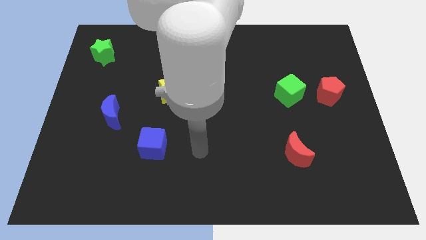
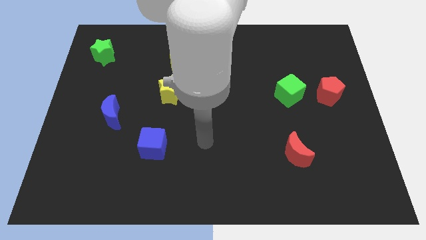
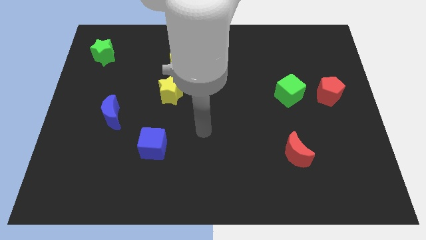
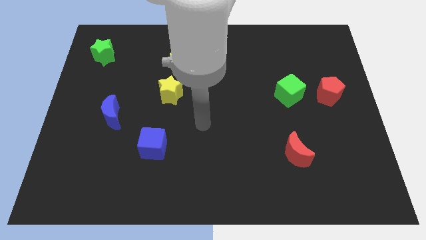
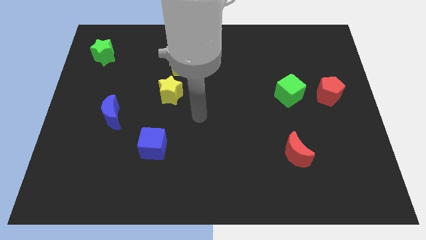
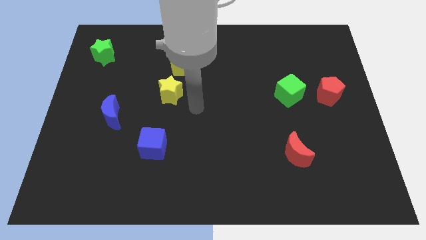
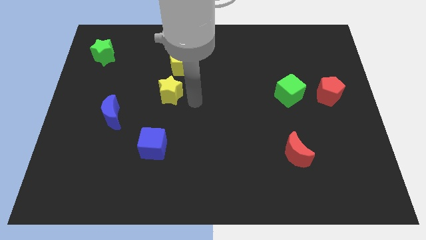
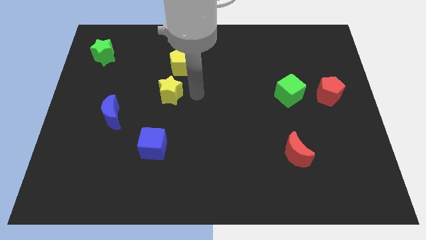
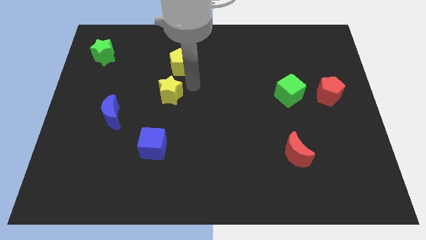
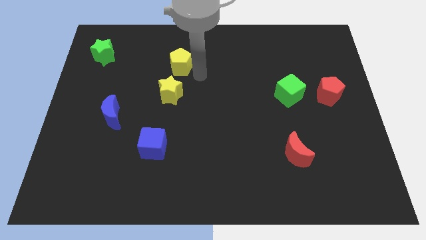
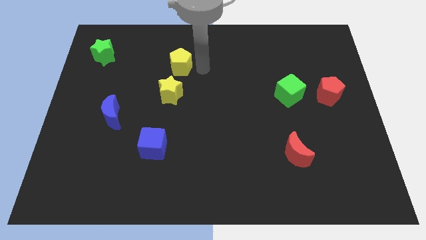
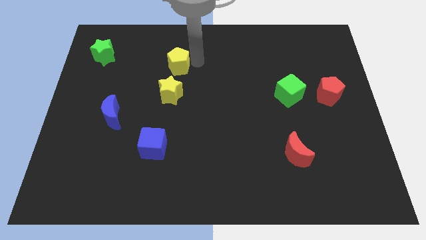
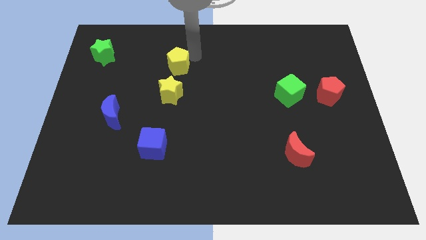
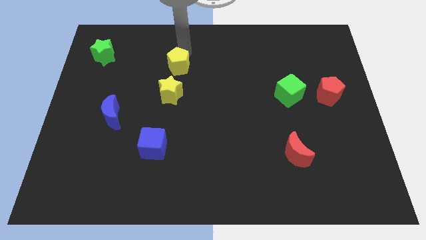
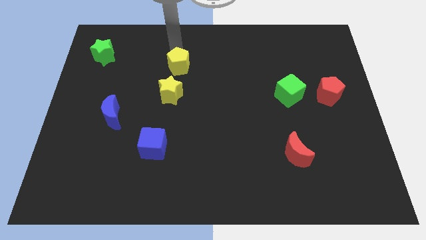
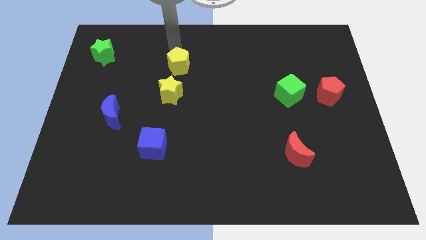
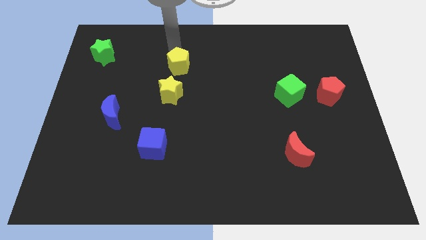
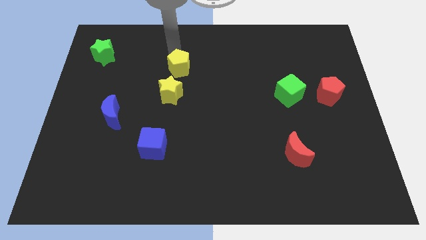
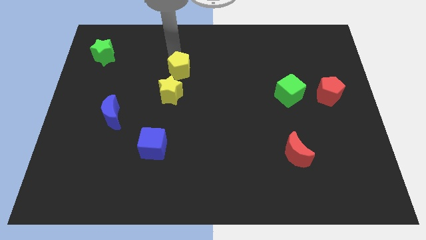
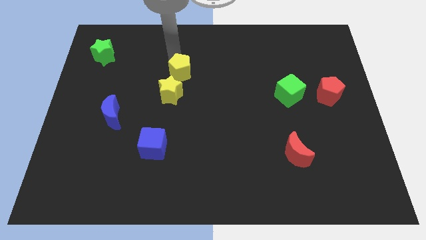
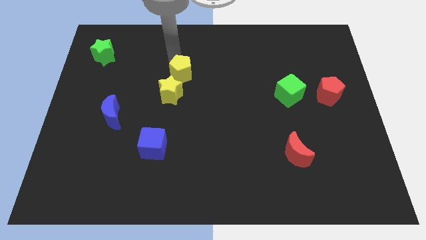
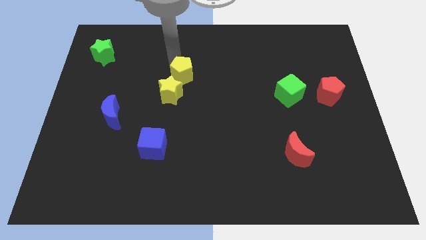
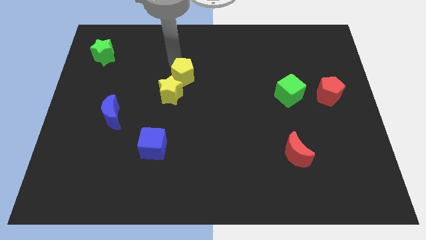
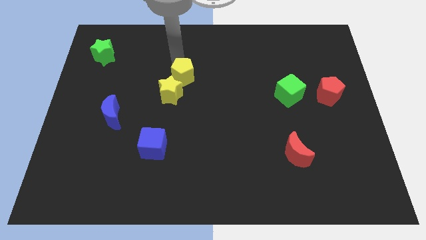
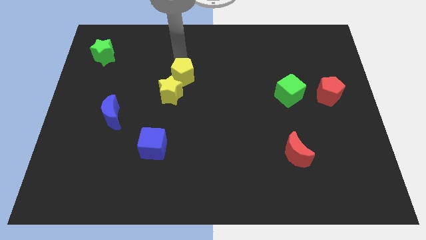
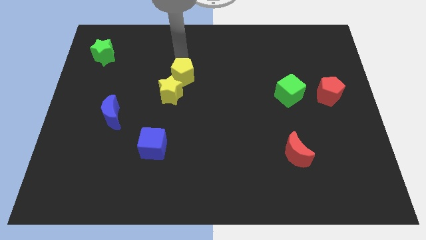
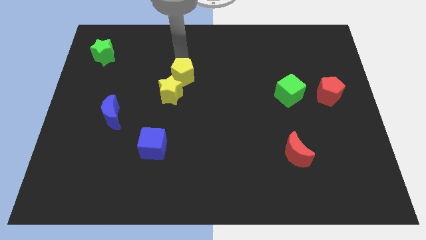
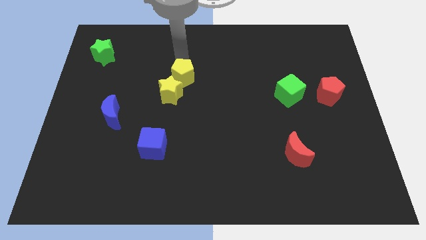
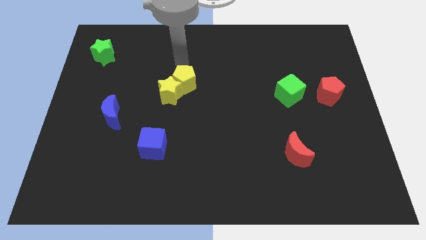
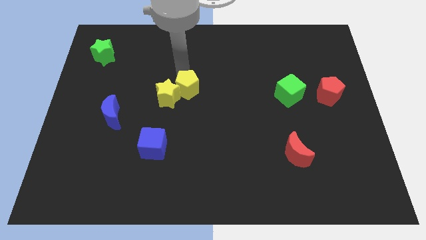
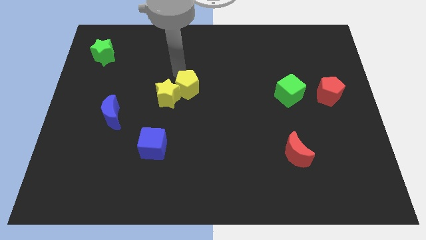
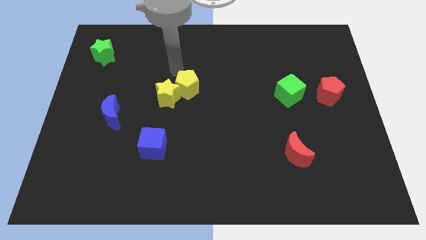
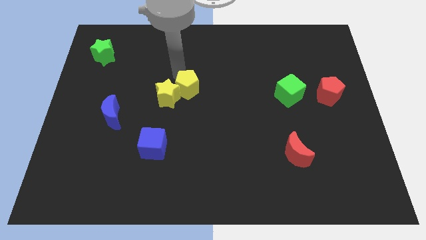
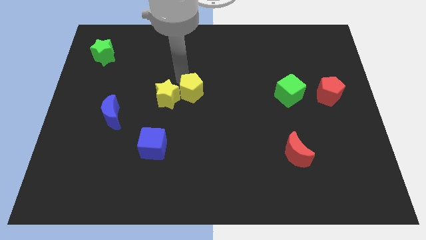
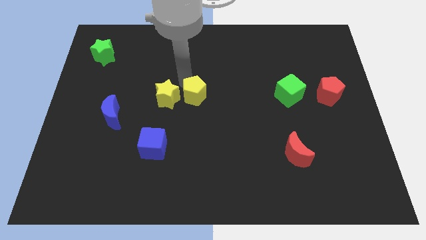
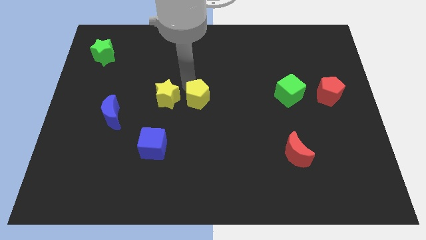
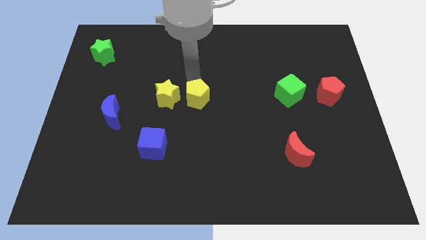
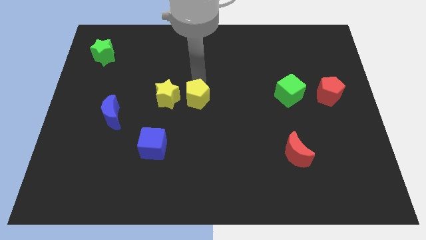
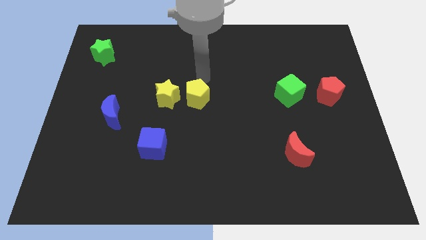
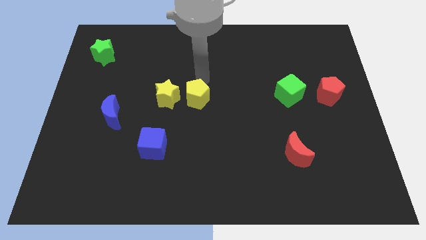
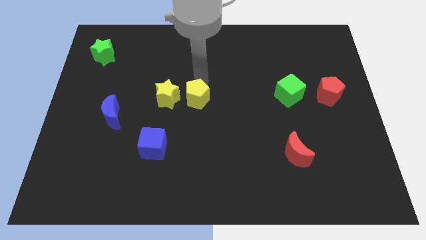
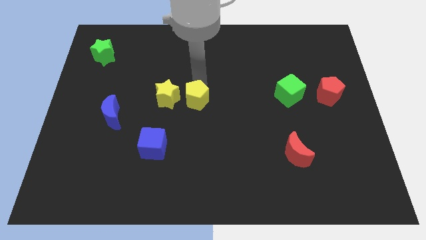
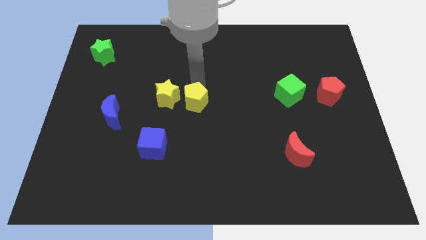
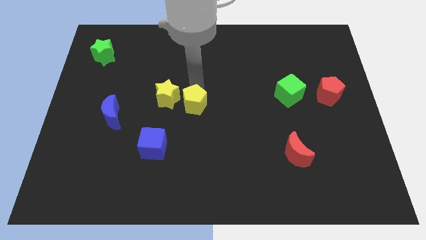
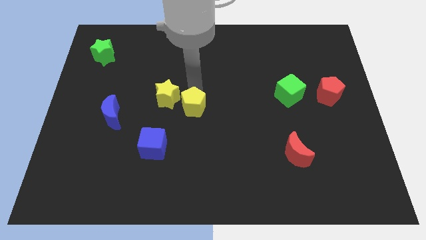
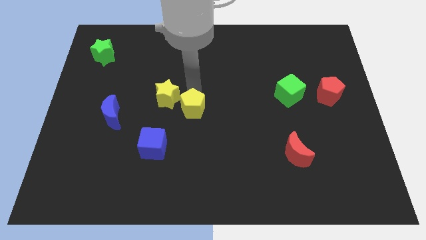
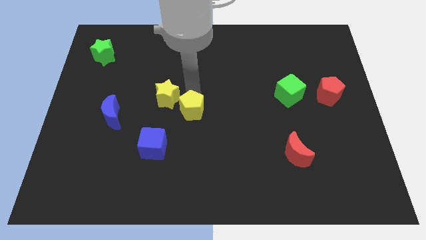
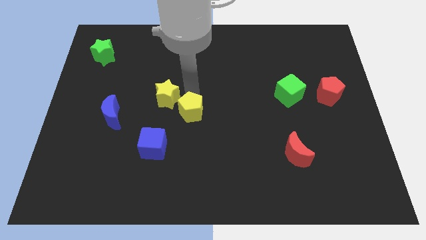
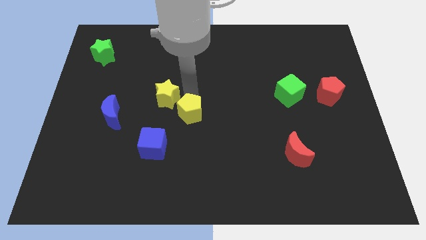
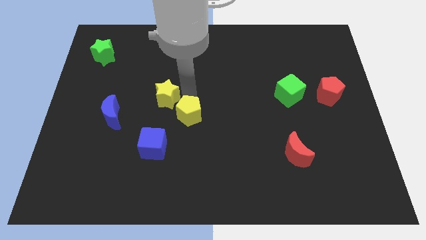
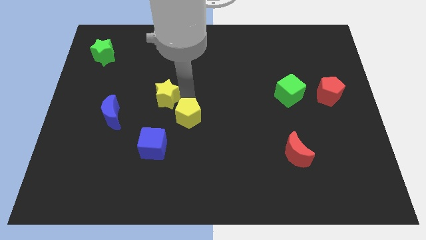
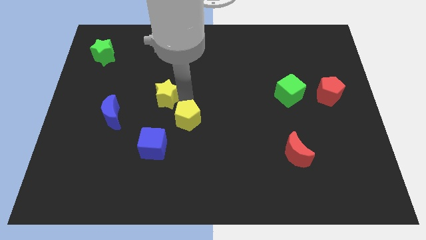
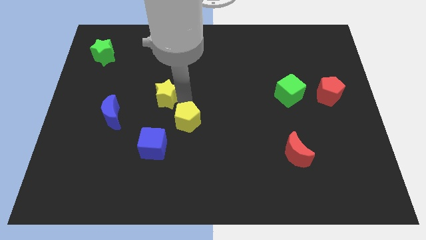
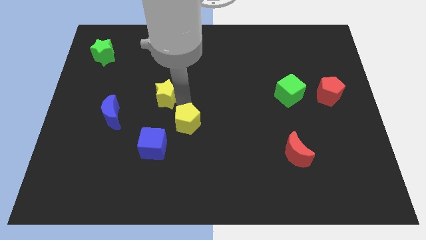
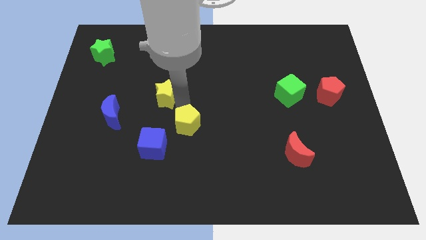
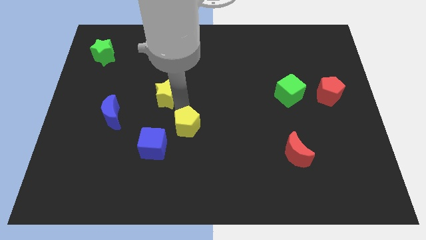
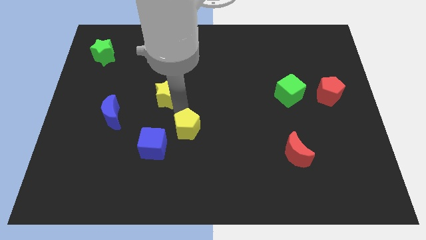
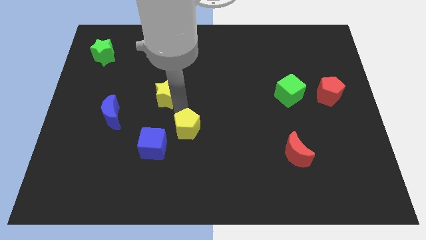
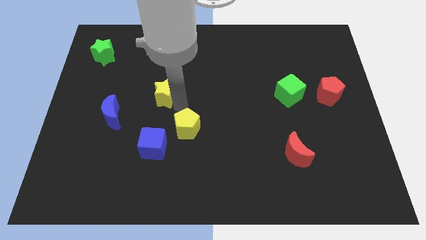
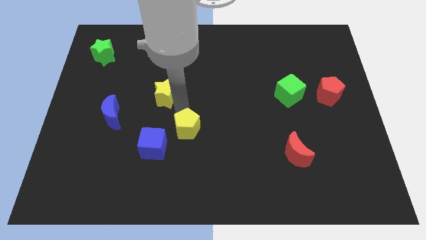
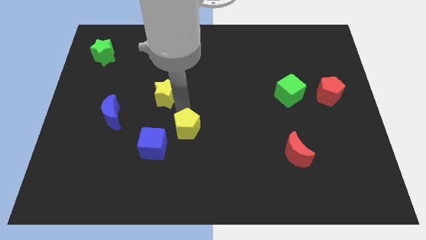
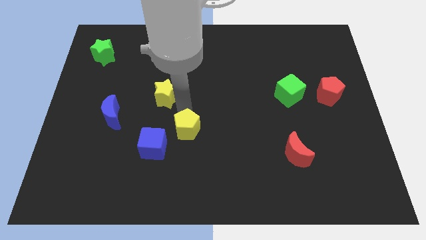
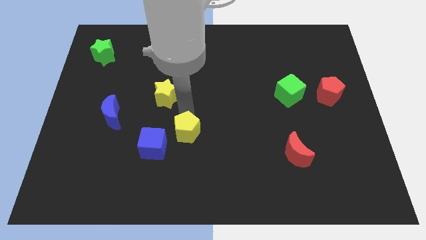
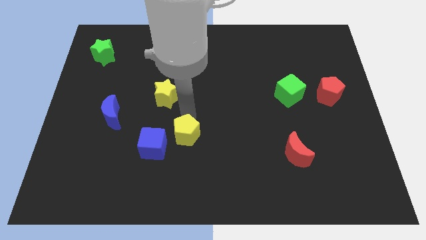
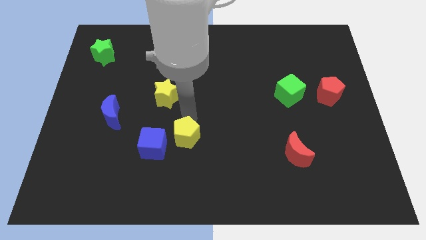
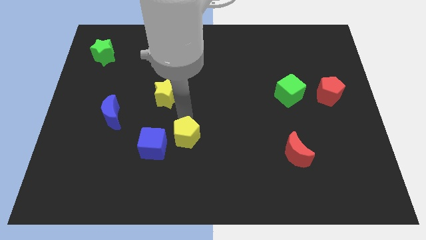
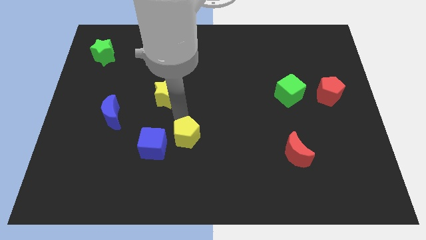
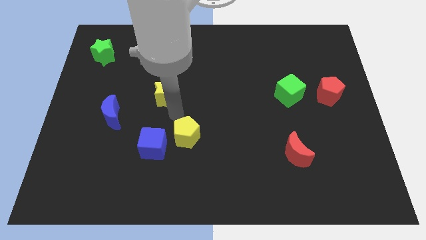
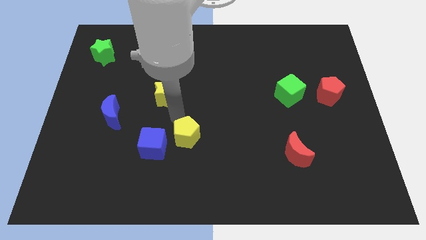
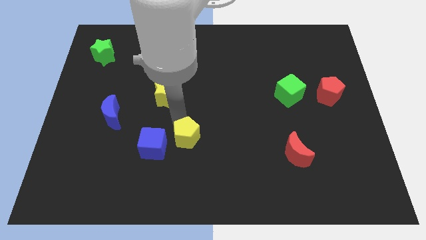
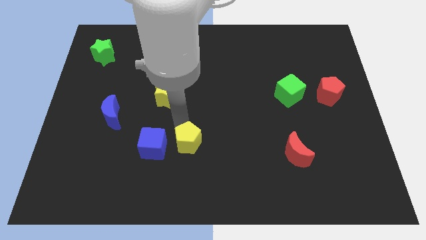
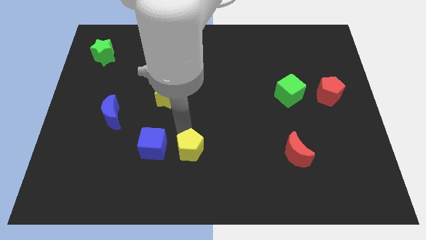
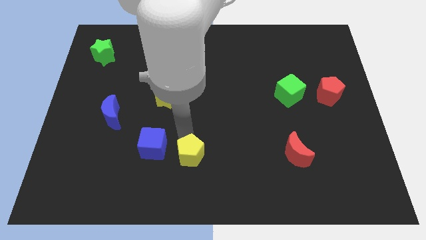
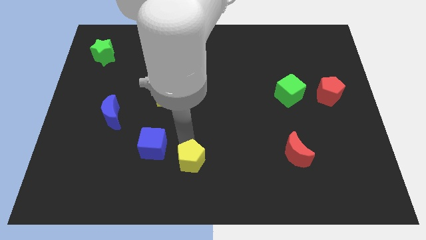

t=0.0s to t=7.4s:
slide the yellow pentagon to the bottom side
